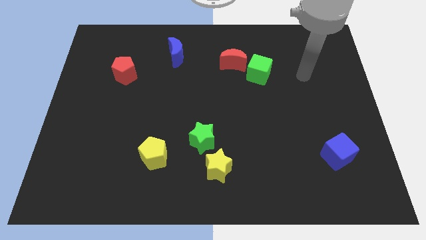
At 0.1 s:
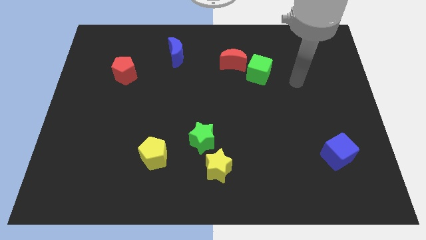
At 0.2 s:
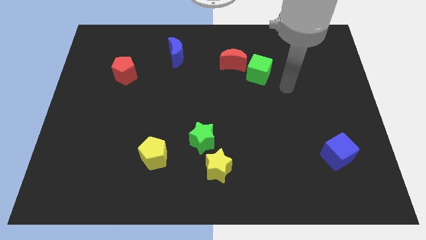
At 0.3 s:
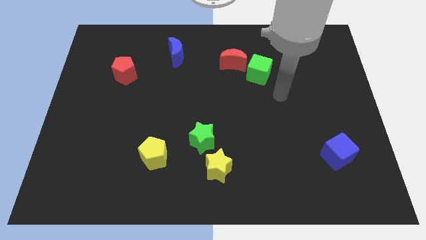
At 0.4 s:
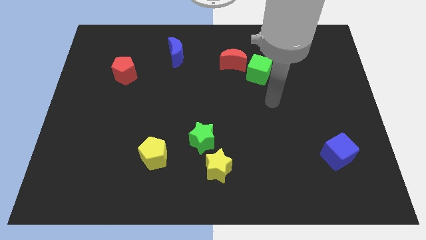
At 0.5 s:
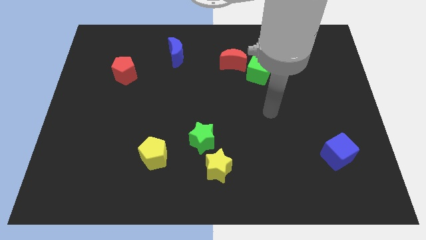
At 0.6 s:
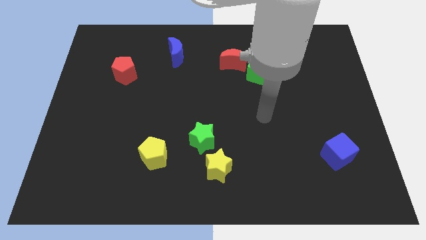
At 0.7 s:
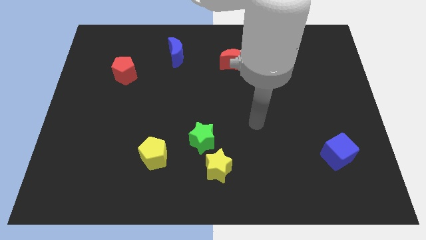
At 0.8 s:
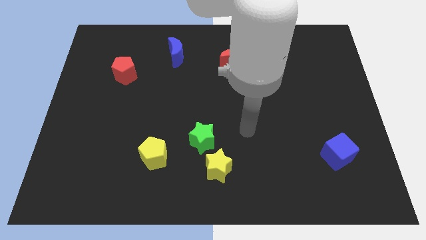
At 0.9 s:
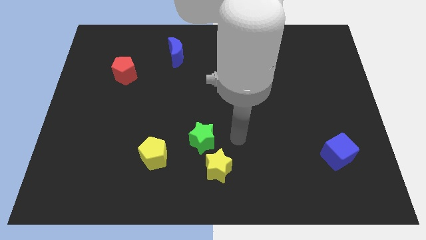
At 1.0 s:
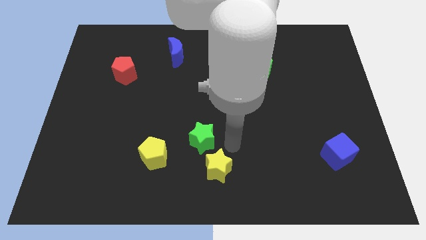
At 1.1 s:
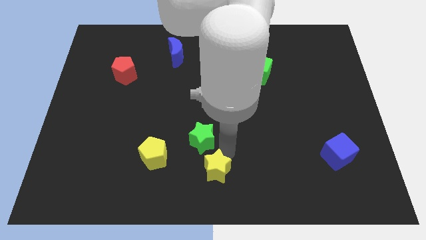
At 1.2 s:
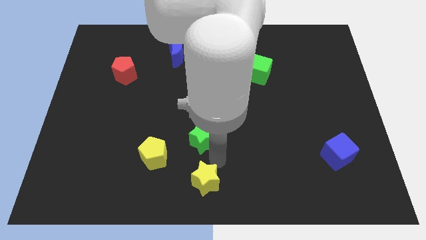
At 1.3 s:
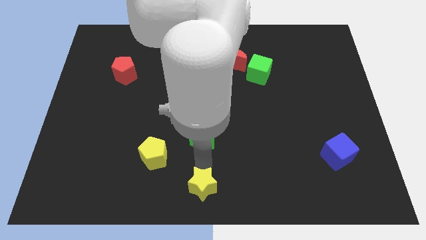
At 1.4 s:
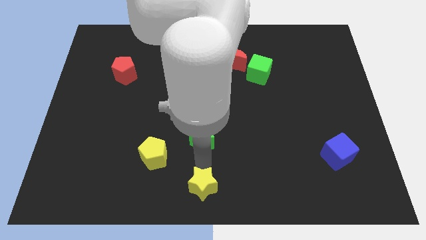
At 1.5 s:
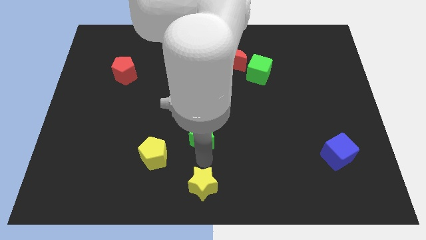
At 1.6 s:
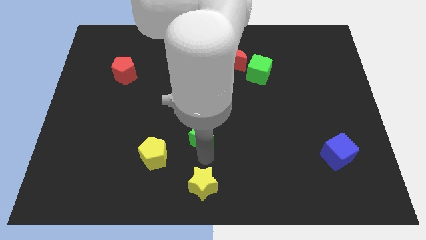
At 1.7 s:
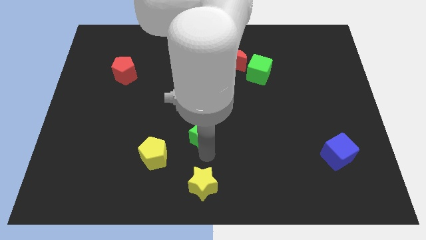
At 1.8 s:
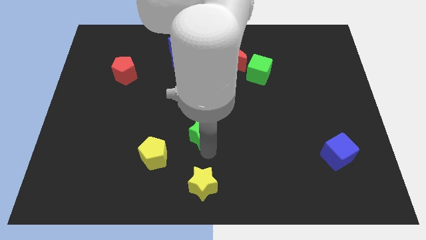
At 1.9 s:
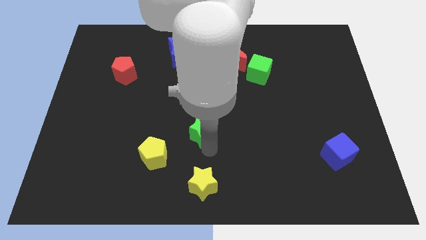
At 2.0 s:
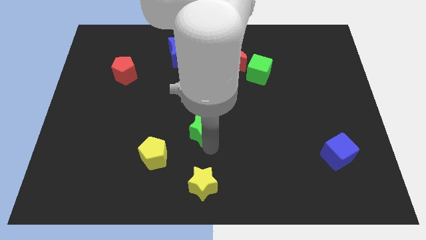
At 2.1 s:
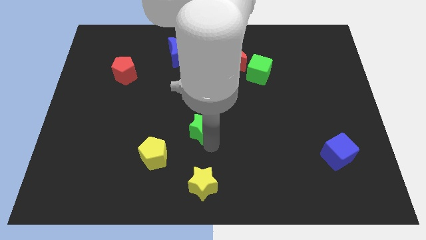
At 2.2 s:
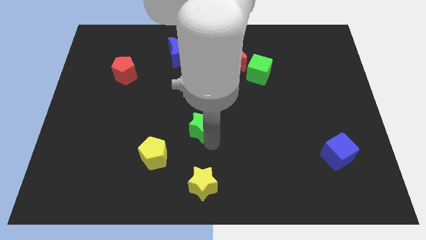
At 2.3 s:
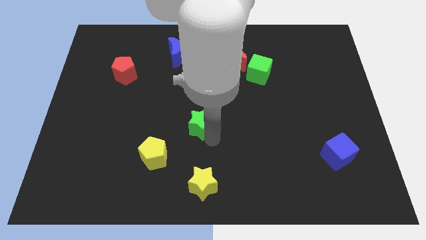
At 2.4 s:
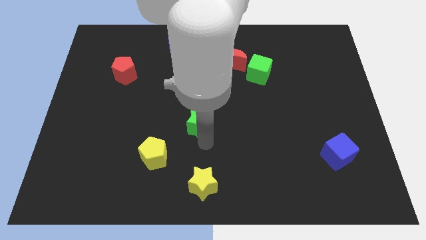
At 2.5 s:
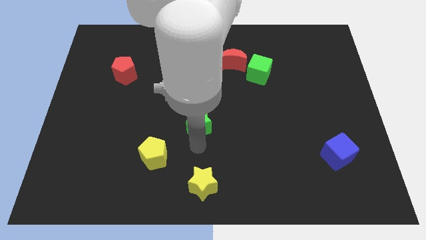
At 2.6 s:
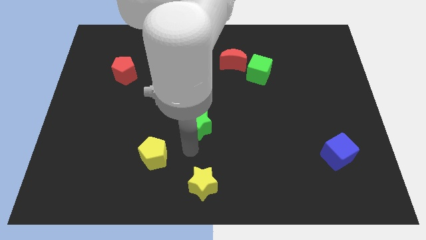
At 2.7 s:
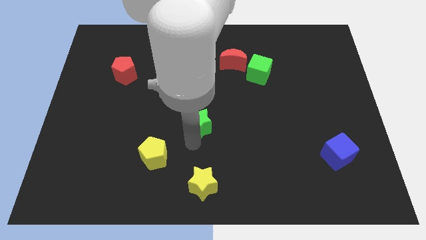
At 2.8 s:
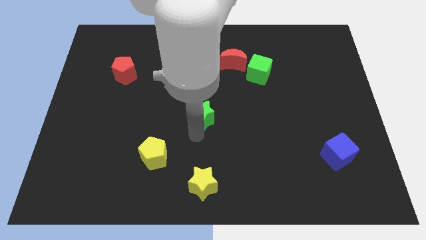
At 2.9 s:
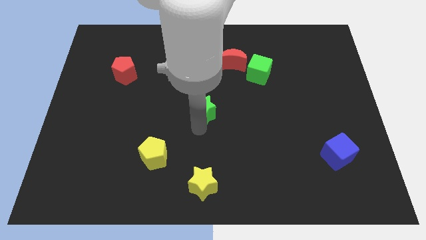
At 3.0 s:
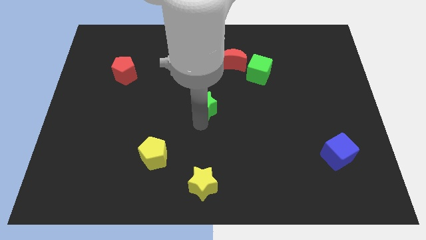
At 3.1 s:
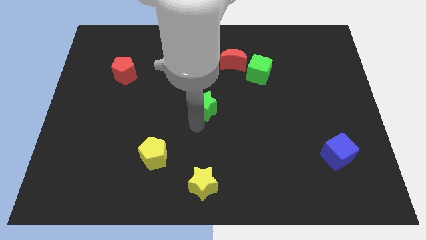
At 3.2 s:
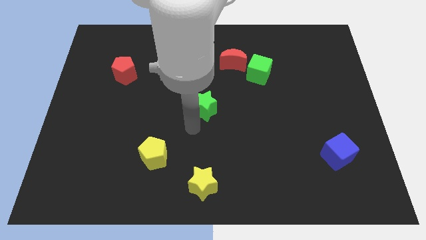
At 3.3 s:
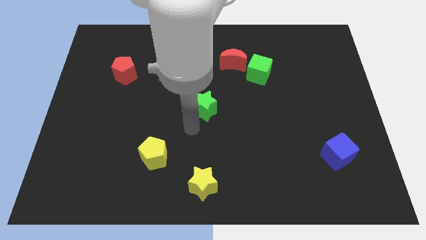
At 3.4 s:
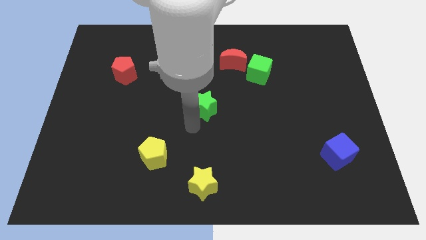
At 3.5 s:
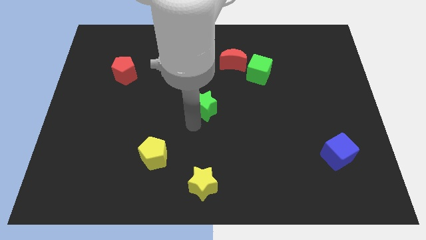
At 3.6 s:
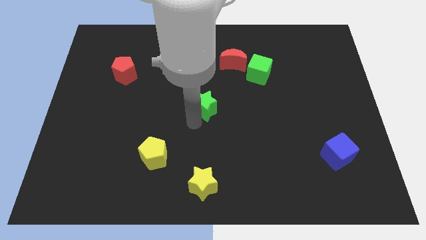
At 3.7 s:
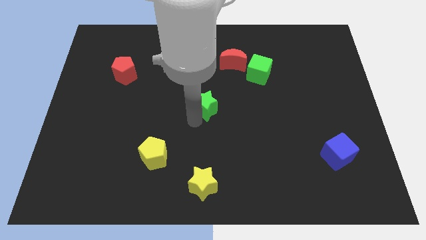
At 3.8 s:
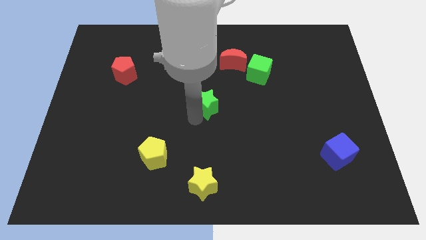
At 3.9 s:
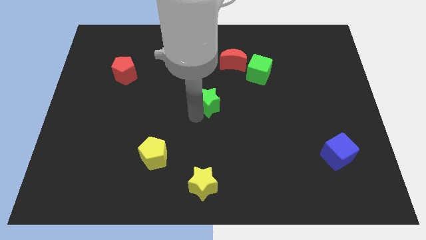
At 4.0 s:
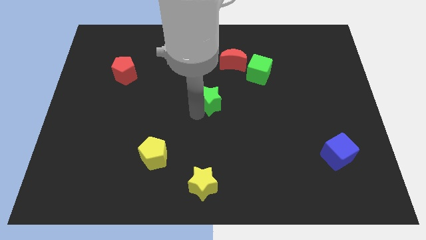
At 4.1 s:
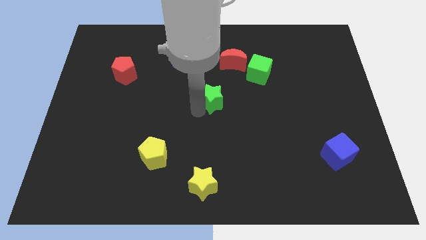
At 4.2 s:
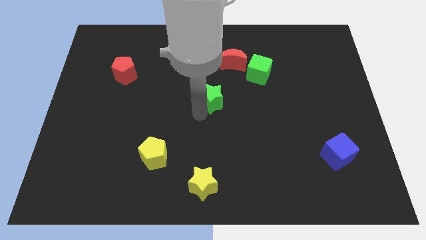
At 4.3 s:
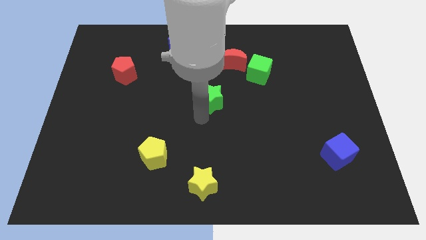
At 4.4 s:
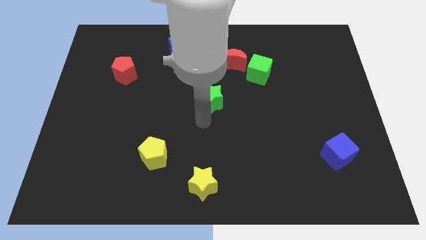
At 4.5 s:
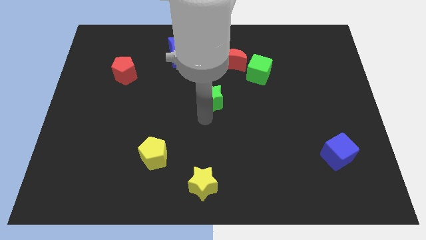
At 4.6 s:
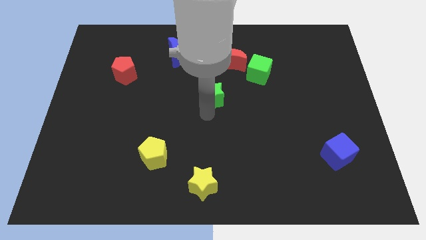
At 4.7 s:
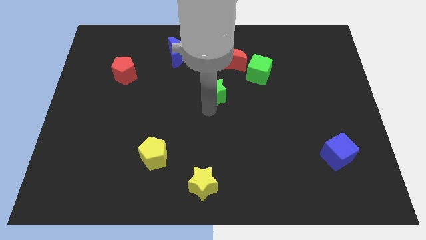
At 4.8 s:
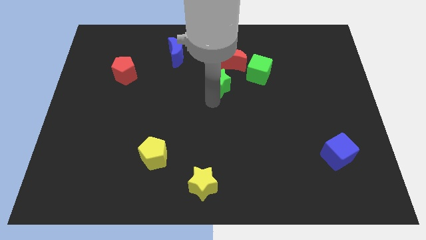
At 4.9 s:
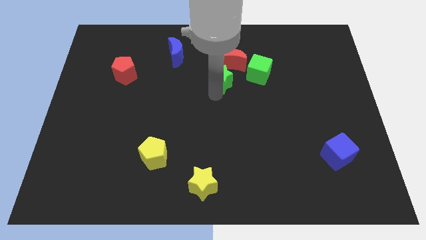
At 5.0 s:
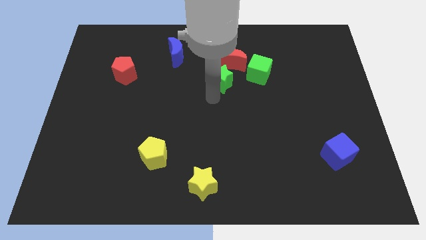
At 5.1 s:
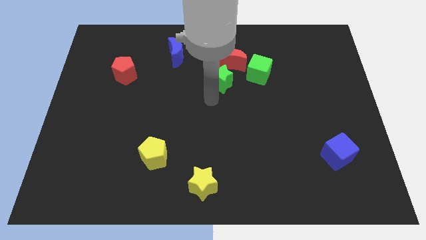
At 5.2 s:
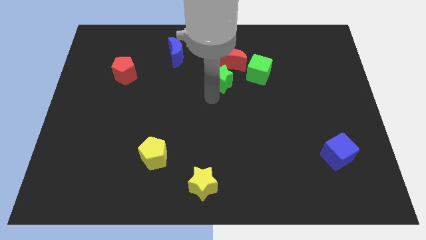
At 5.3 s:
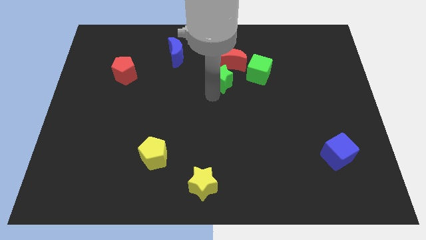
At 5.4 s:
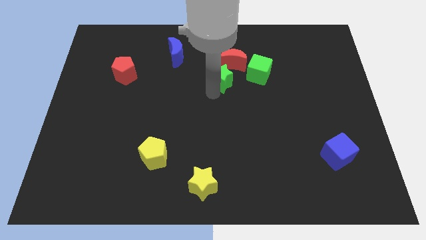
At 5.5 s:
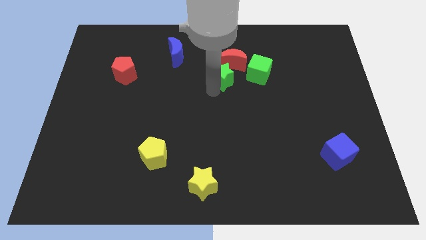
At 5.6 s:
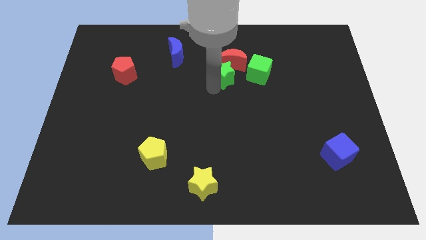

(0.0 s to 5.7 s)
slide the green star towards the red moon

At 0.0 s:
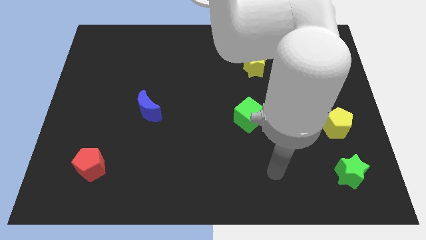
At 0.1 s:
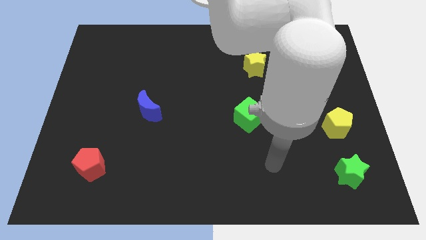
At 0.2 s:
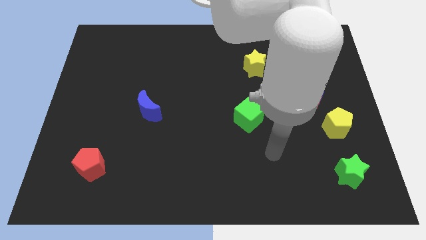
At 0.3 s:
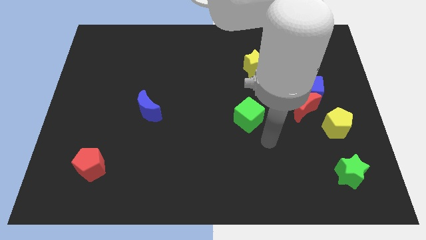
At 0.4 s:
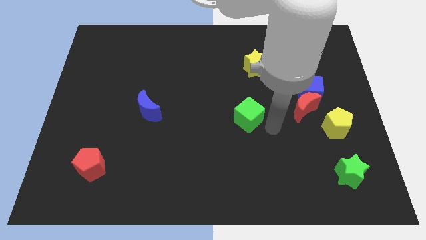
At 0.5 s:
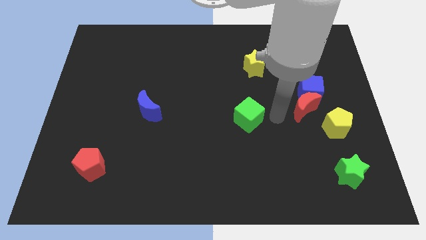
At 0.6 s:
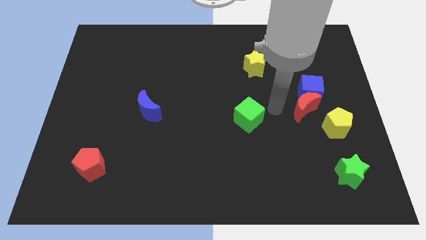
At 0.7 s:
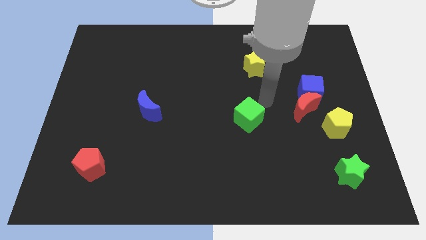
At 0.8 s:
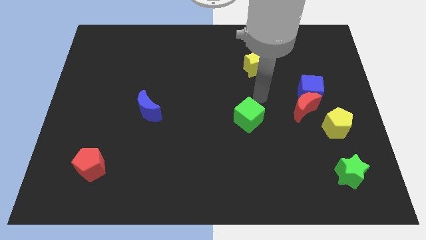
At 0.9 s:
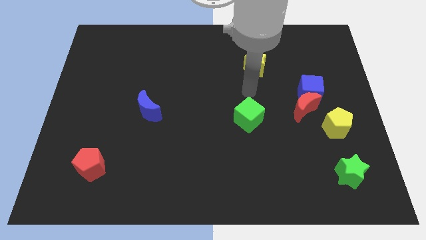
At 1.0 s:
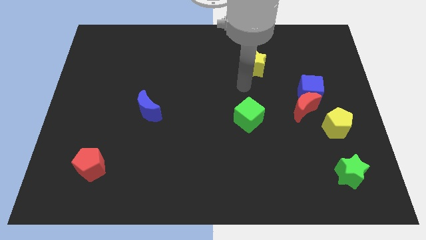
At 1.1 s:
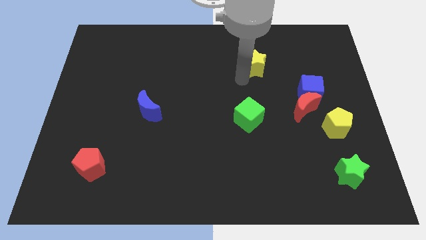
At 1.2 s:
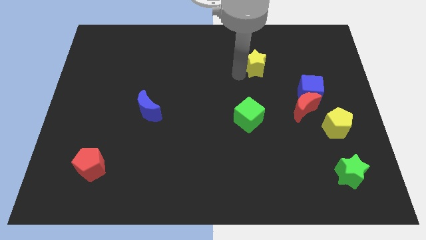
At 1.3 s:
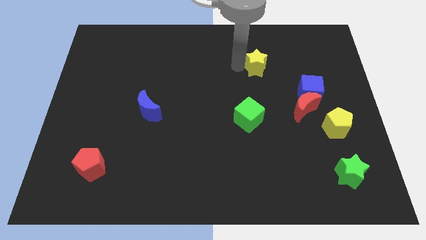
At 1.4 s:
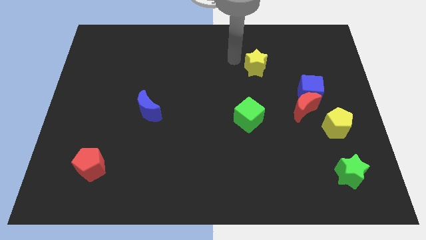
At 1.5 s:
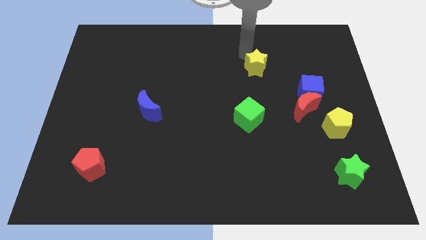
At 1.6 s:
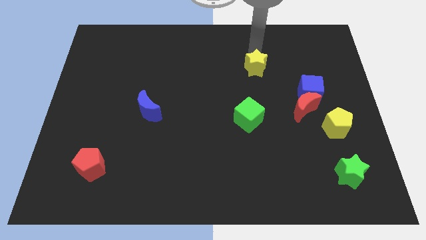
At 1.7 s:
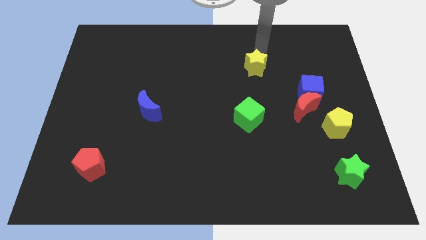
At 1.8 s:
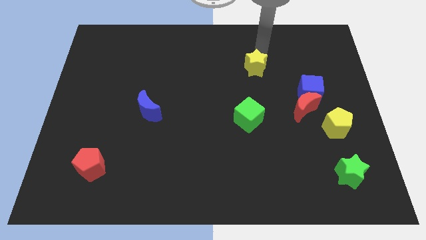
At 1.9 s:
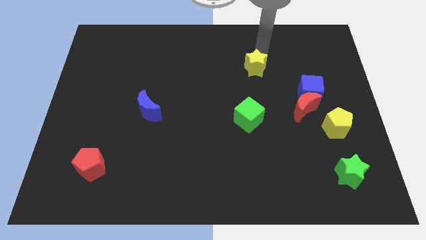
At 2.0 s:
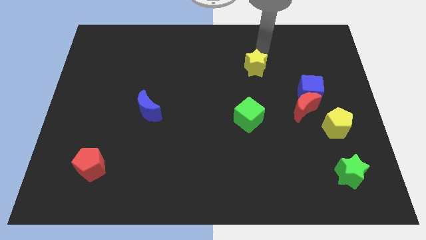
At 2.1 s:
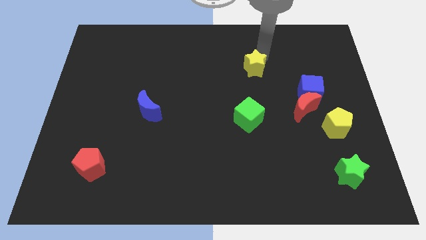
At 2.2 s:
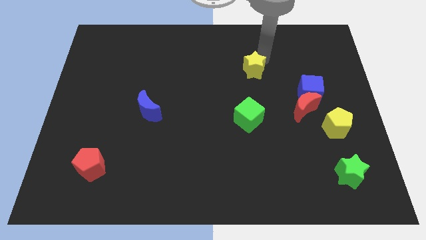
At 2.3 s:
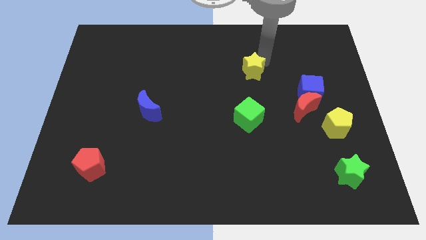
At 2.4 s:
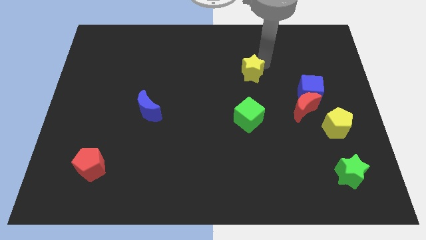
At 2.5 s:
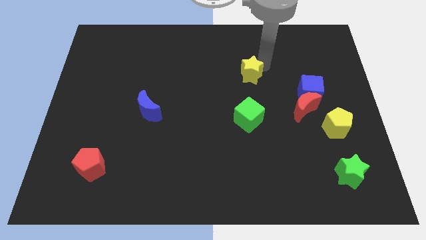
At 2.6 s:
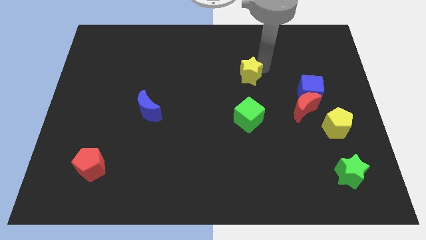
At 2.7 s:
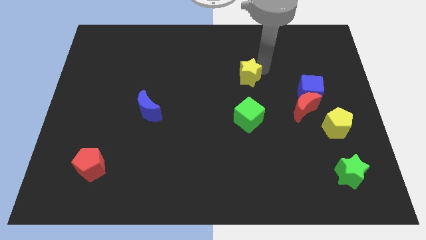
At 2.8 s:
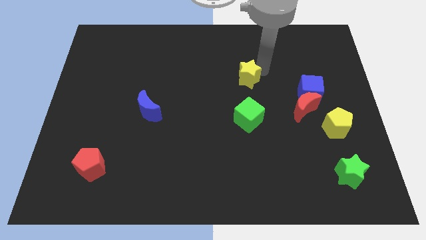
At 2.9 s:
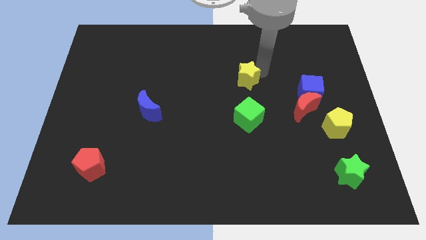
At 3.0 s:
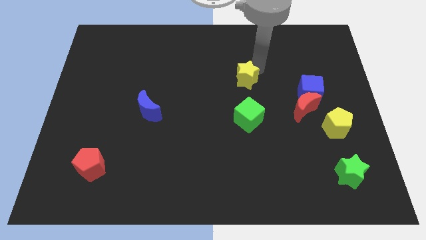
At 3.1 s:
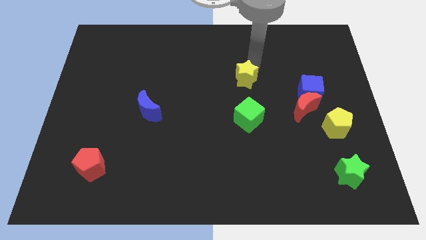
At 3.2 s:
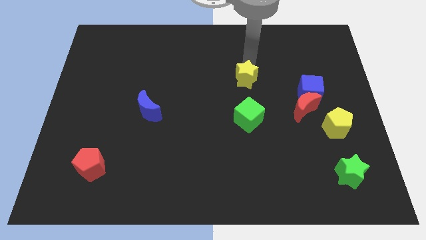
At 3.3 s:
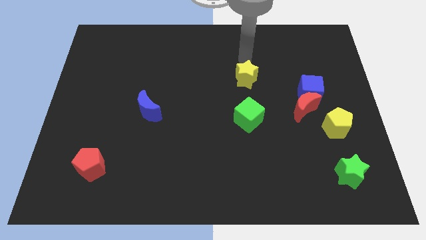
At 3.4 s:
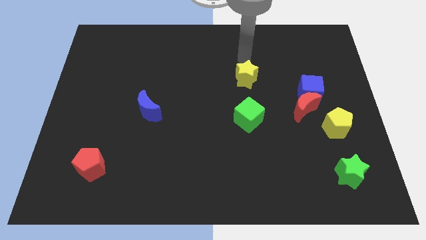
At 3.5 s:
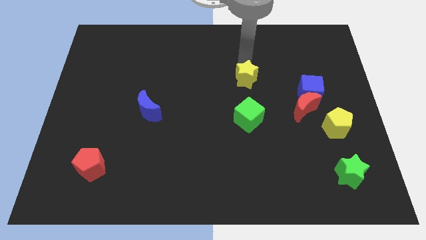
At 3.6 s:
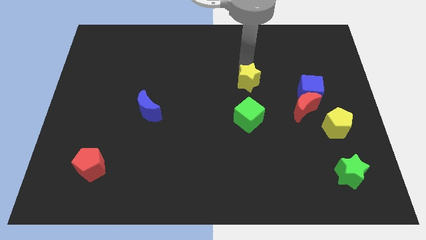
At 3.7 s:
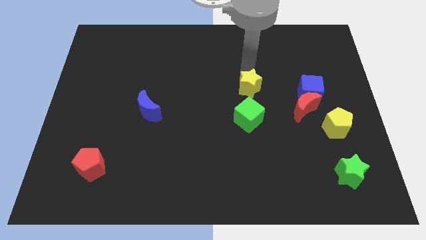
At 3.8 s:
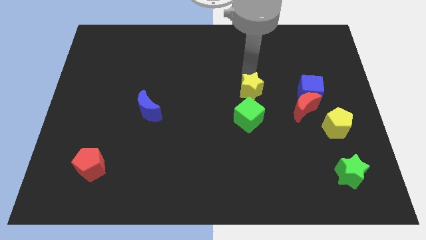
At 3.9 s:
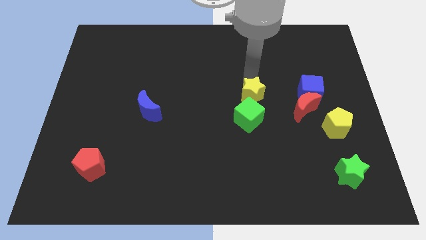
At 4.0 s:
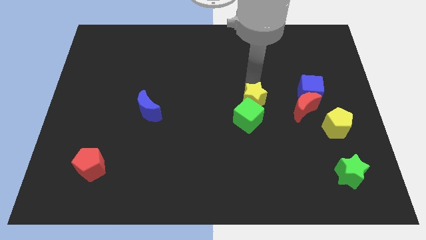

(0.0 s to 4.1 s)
slide the yellow star towards the green cube
